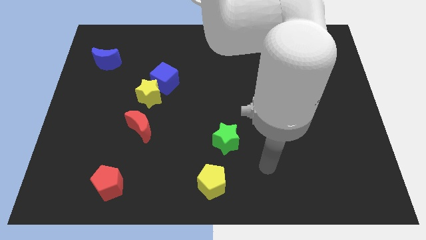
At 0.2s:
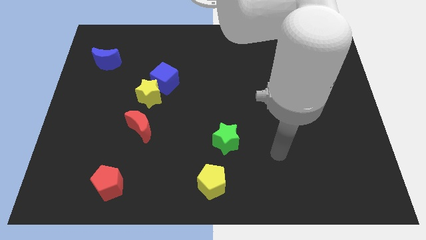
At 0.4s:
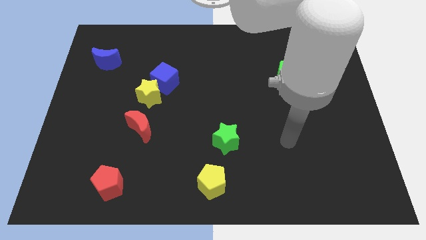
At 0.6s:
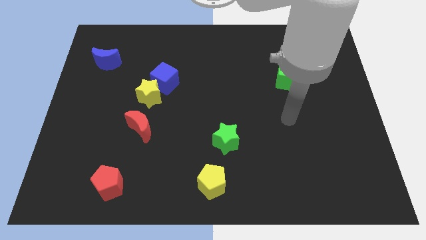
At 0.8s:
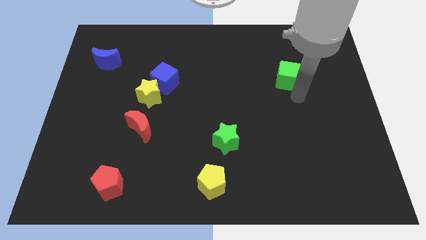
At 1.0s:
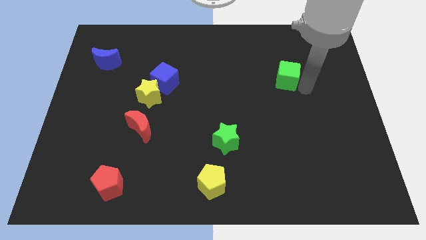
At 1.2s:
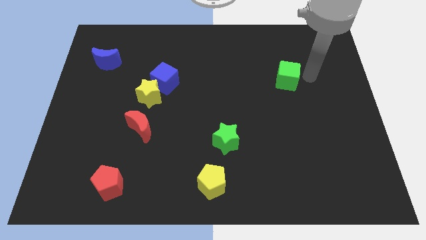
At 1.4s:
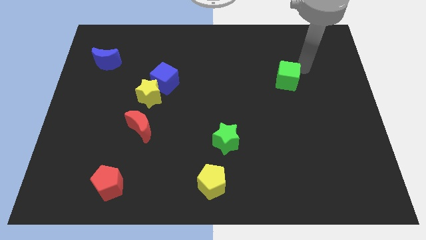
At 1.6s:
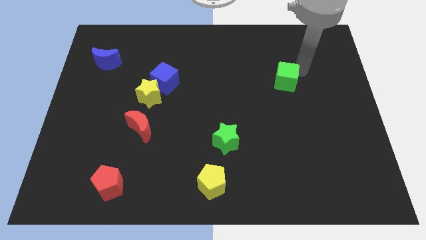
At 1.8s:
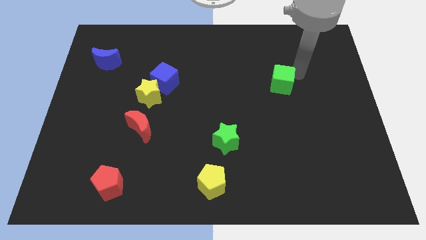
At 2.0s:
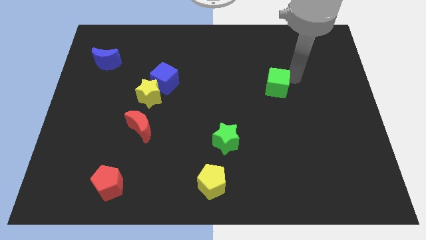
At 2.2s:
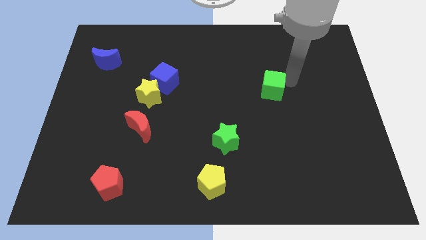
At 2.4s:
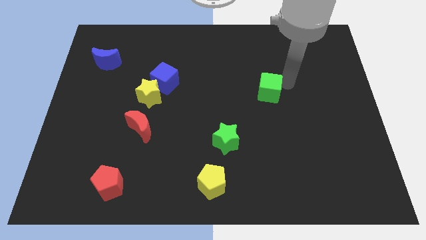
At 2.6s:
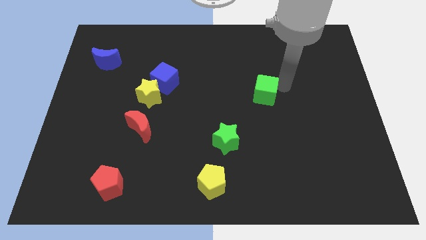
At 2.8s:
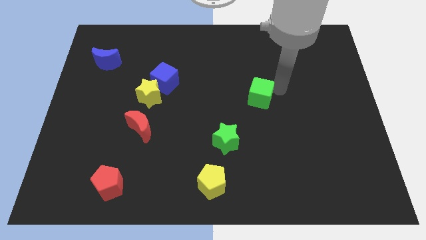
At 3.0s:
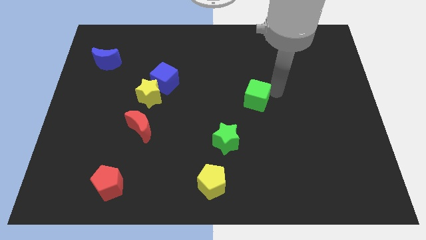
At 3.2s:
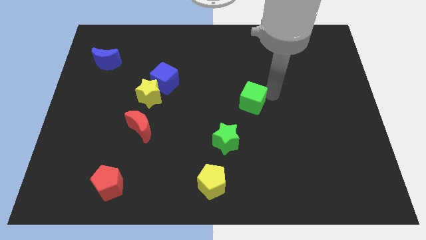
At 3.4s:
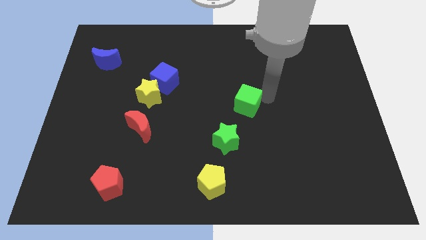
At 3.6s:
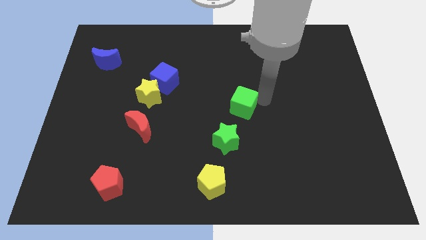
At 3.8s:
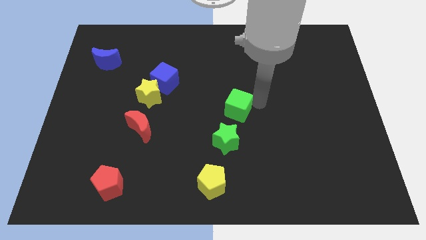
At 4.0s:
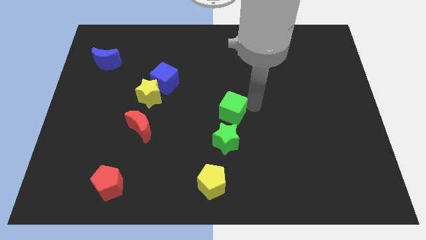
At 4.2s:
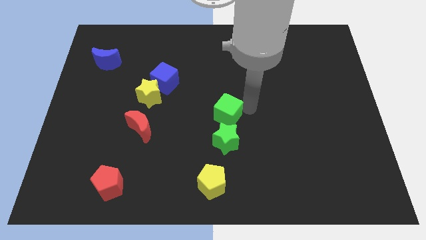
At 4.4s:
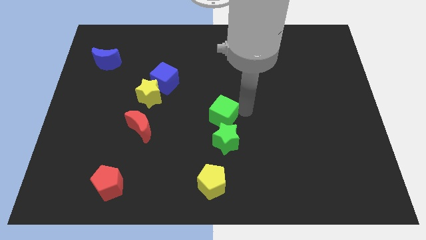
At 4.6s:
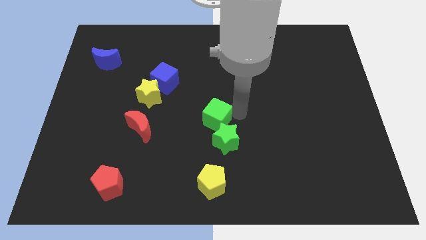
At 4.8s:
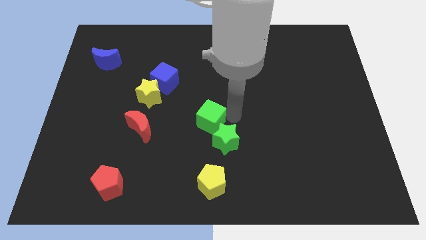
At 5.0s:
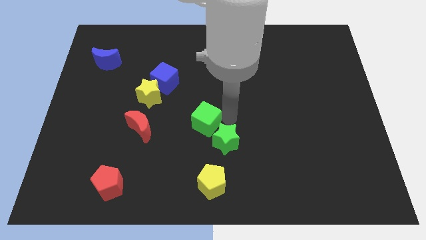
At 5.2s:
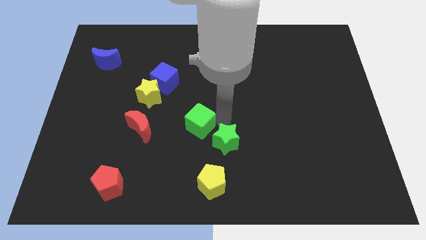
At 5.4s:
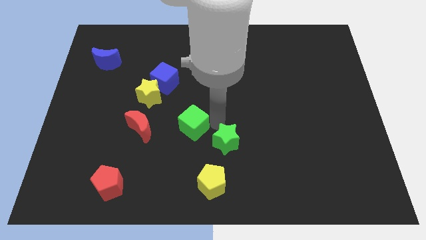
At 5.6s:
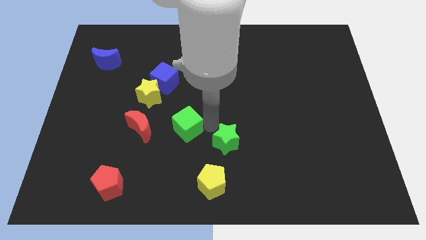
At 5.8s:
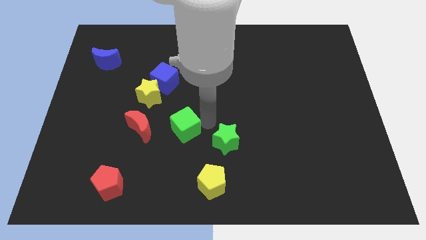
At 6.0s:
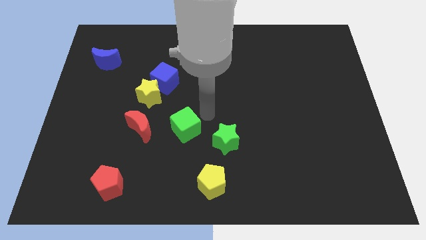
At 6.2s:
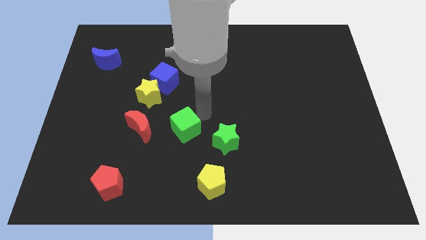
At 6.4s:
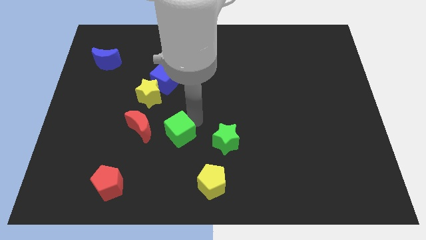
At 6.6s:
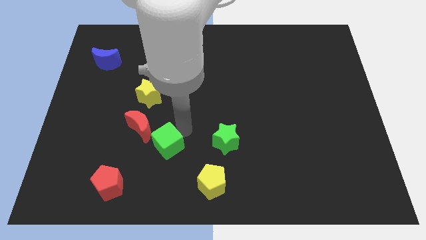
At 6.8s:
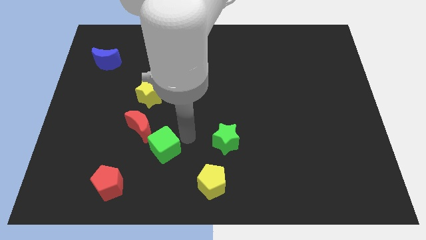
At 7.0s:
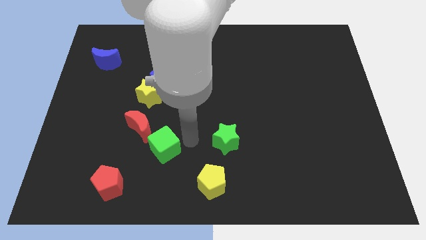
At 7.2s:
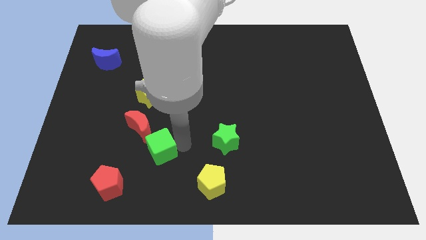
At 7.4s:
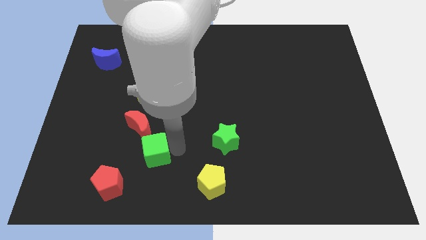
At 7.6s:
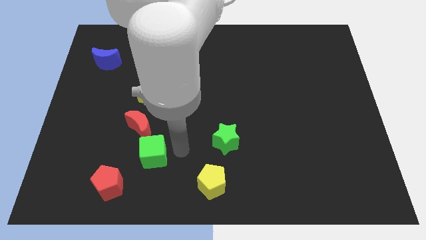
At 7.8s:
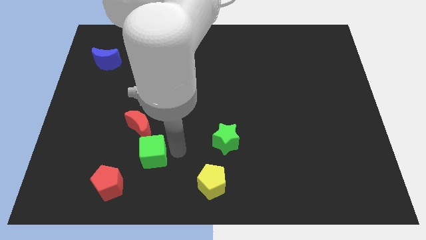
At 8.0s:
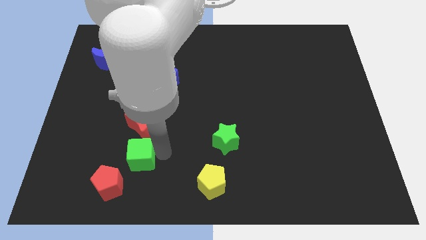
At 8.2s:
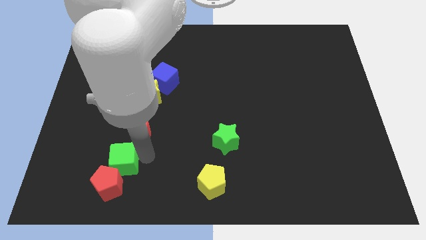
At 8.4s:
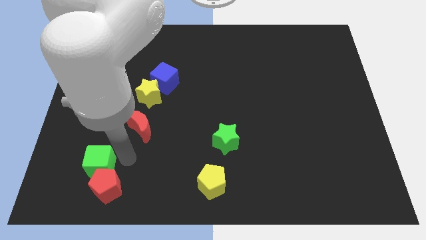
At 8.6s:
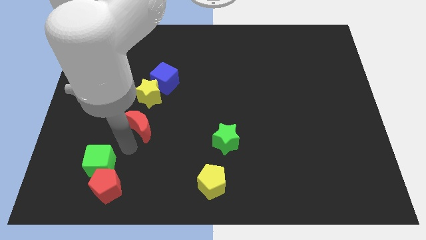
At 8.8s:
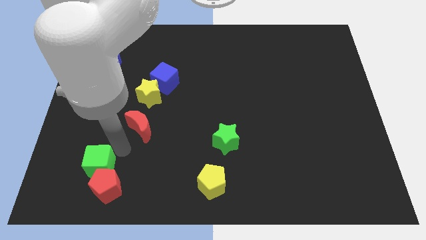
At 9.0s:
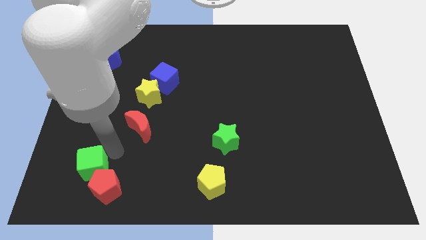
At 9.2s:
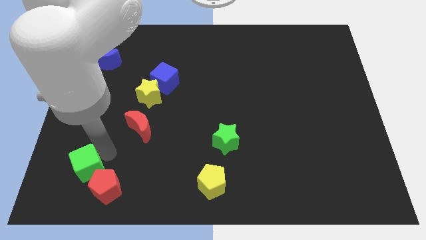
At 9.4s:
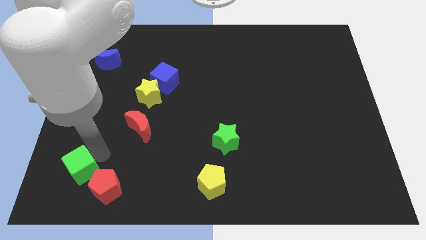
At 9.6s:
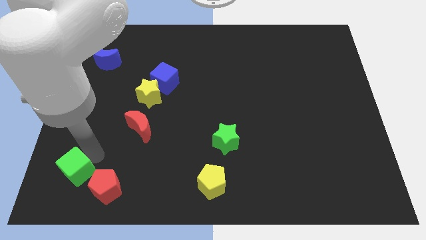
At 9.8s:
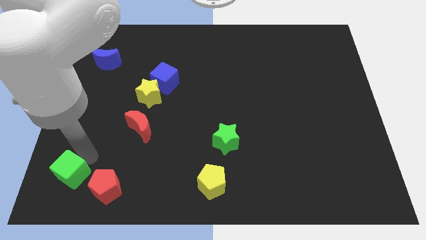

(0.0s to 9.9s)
move the green cube to the bottom left of the board
